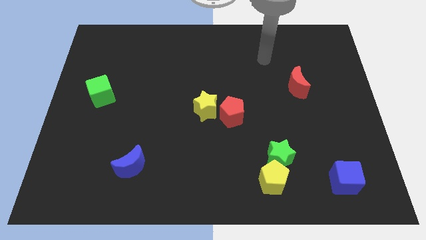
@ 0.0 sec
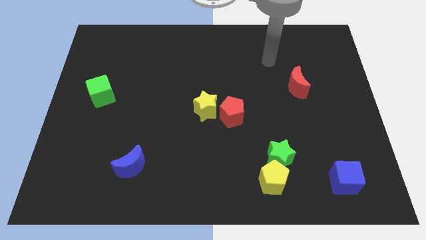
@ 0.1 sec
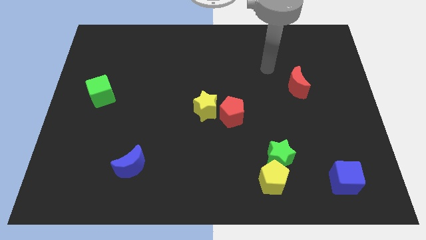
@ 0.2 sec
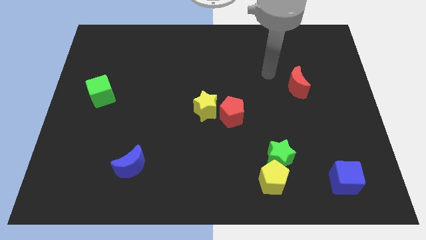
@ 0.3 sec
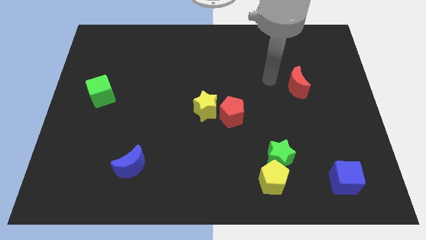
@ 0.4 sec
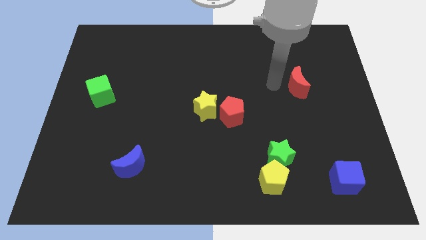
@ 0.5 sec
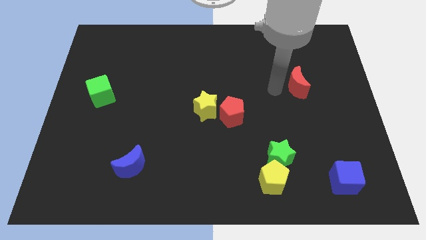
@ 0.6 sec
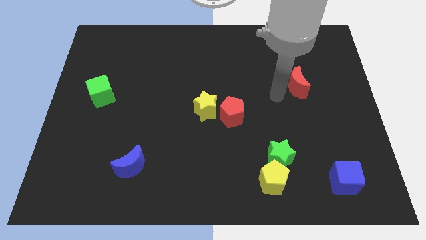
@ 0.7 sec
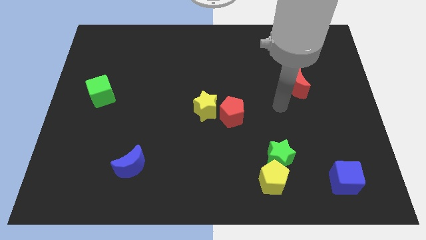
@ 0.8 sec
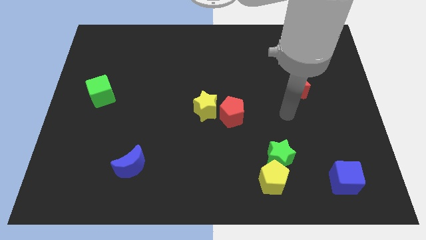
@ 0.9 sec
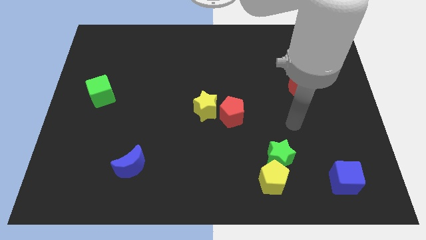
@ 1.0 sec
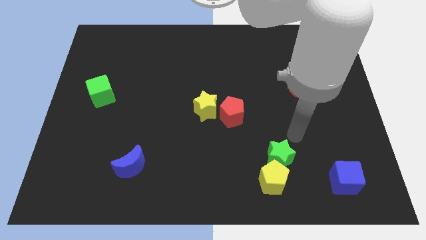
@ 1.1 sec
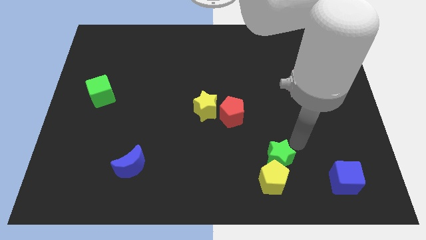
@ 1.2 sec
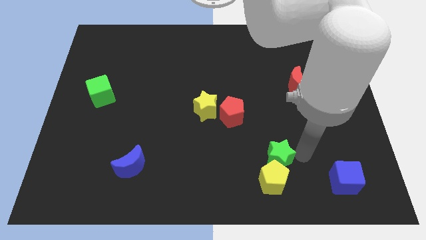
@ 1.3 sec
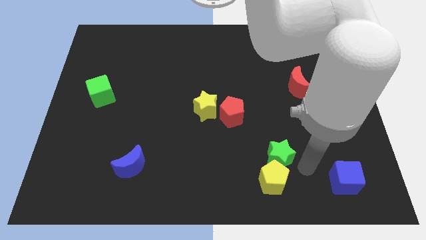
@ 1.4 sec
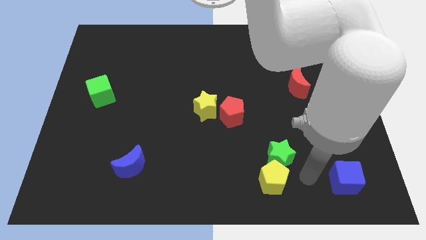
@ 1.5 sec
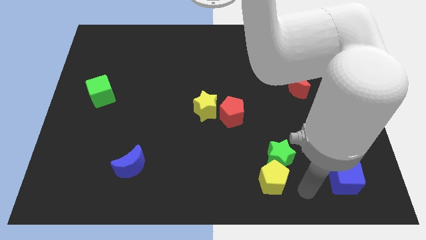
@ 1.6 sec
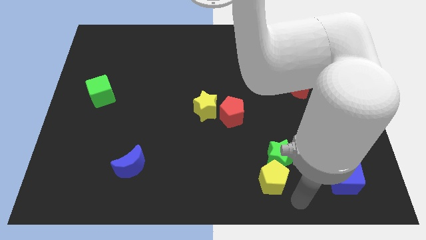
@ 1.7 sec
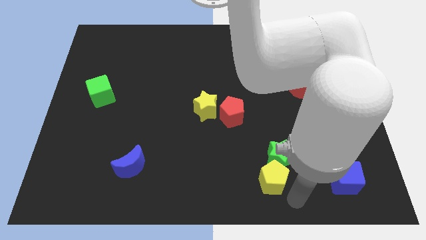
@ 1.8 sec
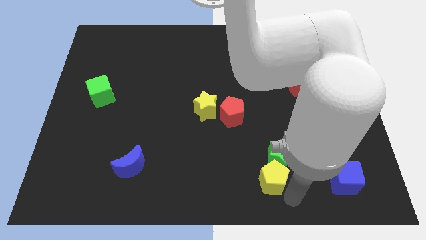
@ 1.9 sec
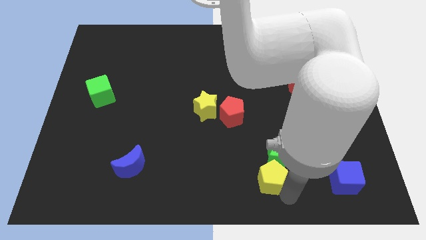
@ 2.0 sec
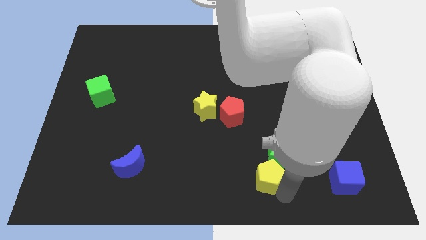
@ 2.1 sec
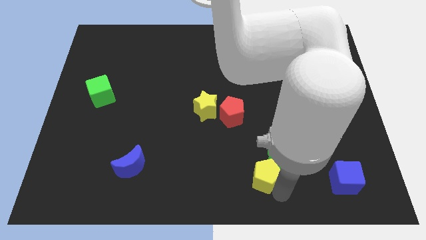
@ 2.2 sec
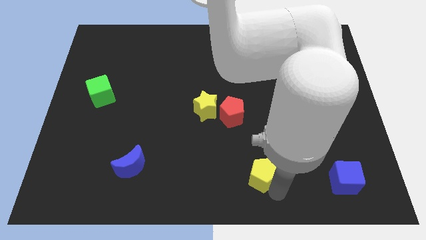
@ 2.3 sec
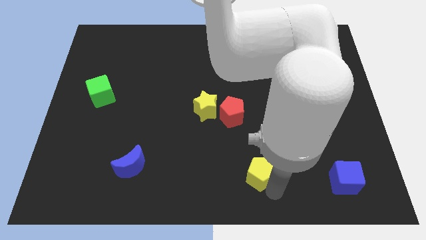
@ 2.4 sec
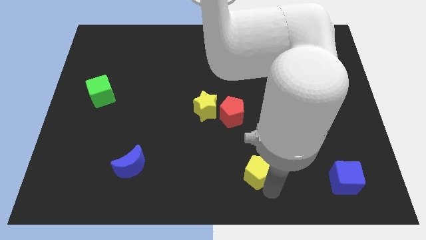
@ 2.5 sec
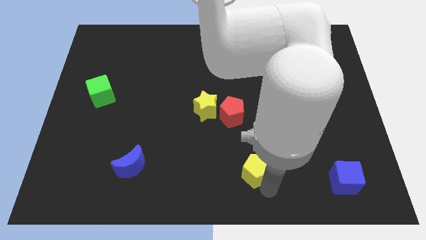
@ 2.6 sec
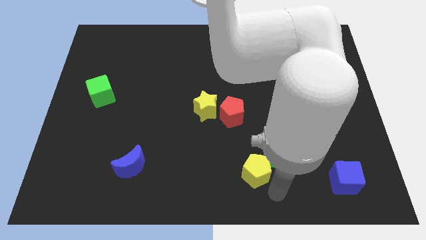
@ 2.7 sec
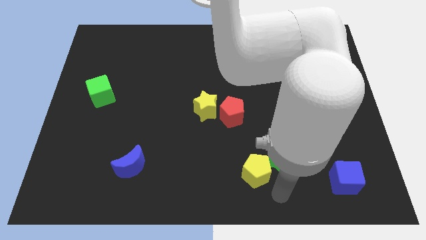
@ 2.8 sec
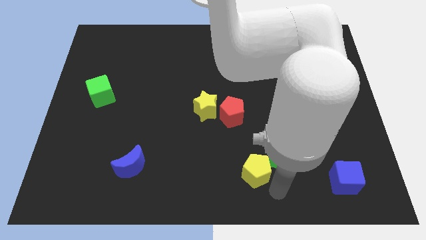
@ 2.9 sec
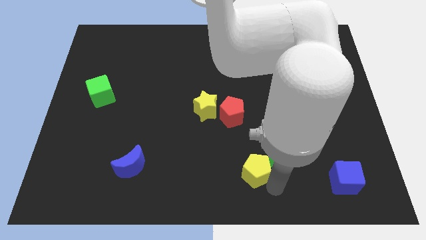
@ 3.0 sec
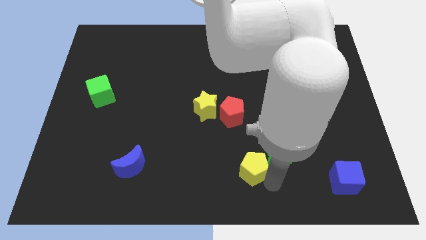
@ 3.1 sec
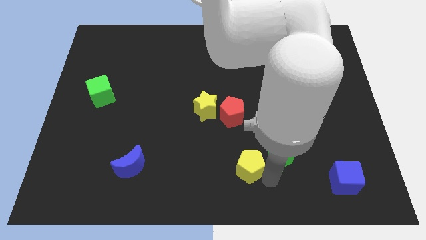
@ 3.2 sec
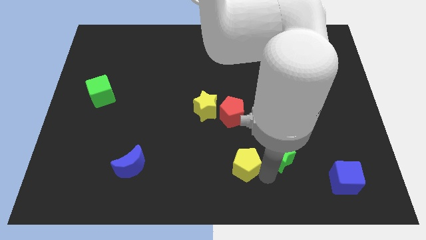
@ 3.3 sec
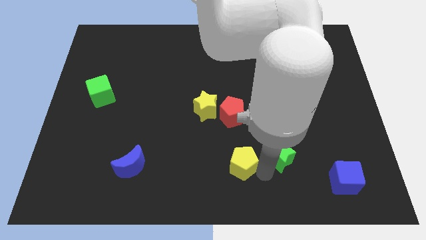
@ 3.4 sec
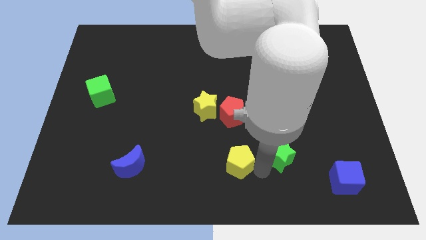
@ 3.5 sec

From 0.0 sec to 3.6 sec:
slide the yellow pentagon a little bit upwards and then to the left

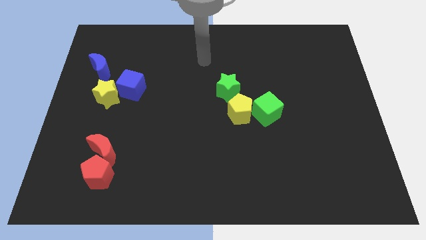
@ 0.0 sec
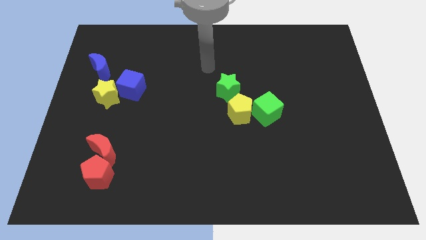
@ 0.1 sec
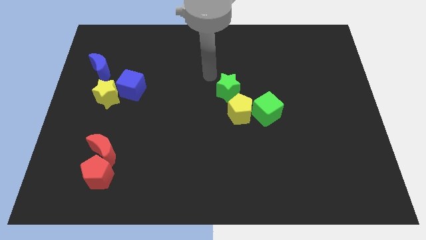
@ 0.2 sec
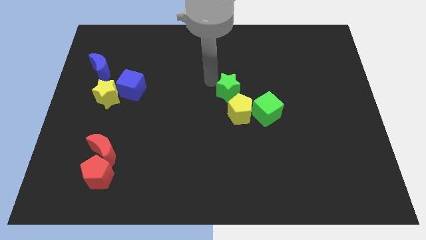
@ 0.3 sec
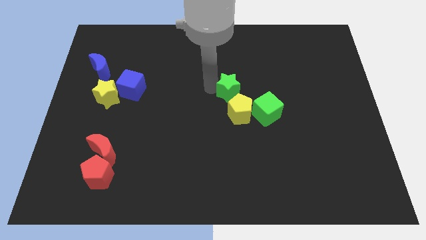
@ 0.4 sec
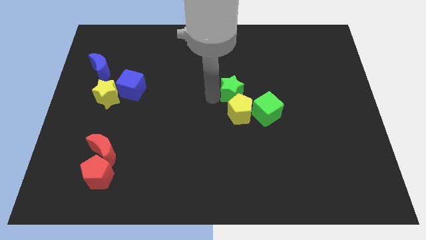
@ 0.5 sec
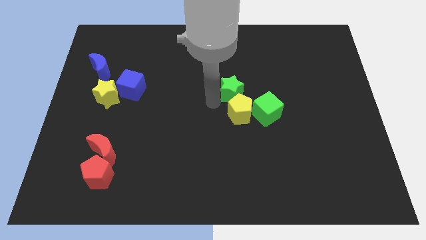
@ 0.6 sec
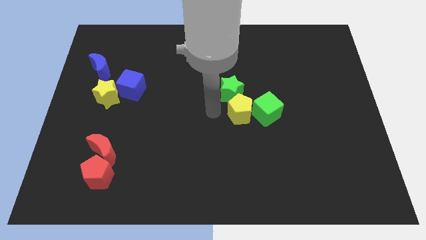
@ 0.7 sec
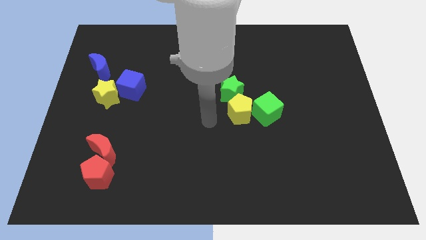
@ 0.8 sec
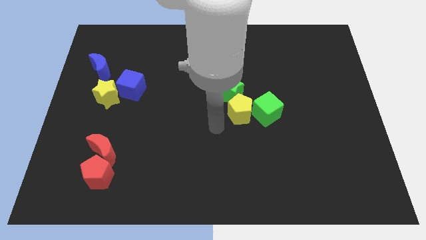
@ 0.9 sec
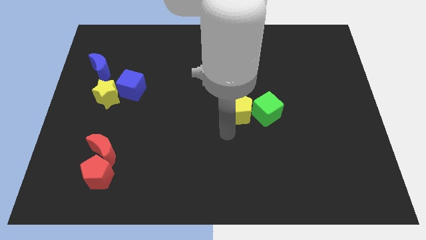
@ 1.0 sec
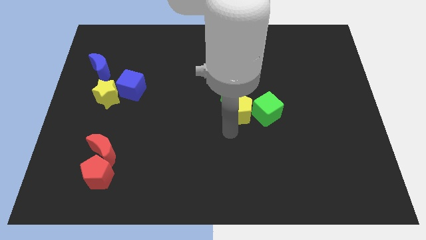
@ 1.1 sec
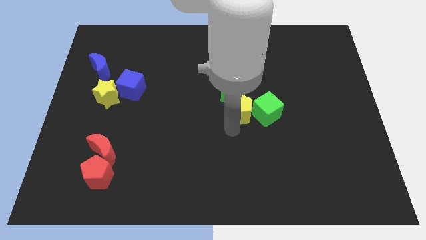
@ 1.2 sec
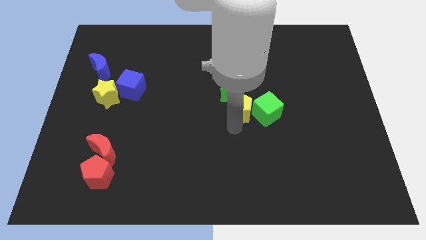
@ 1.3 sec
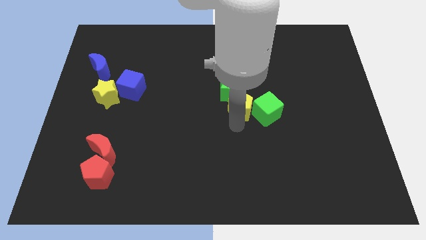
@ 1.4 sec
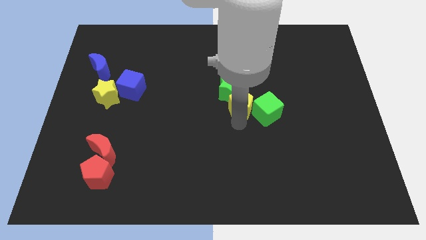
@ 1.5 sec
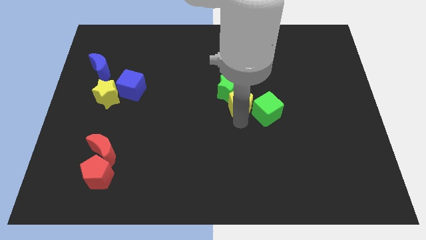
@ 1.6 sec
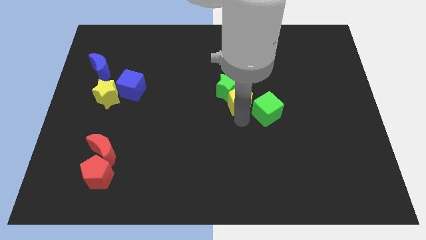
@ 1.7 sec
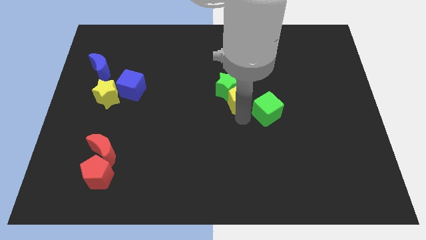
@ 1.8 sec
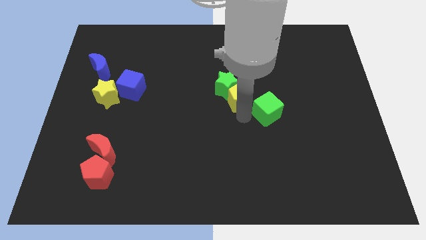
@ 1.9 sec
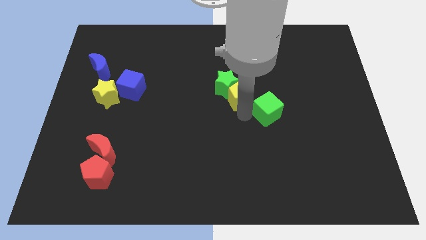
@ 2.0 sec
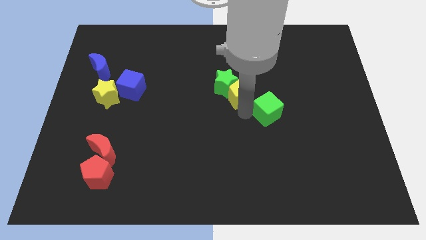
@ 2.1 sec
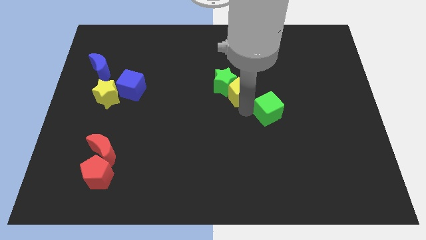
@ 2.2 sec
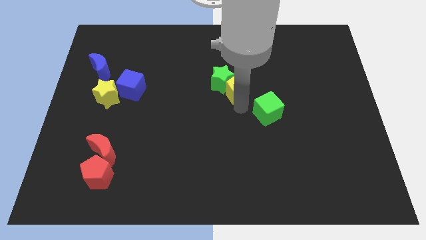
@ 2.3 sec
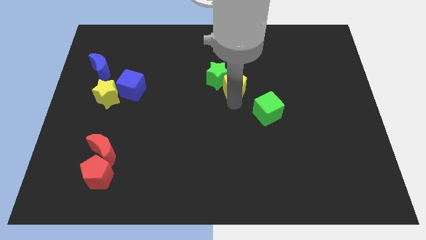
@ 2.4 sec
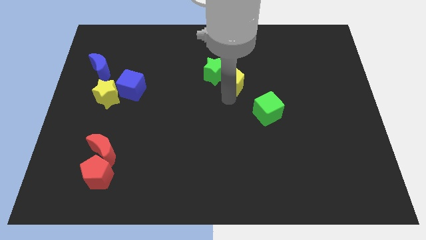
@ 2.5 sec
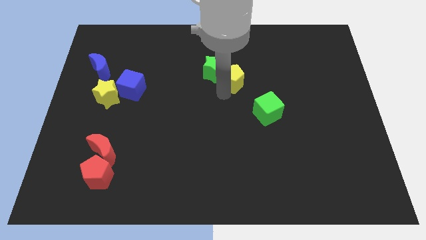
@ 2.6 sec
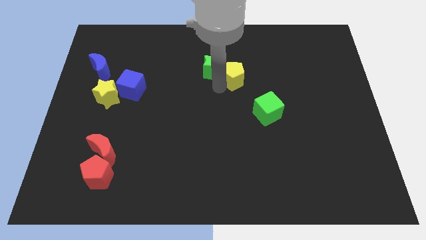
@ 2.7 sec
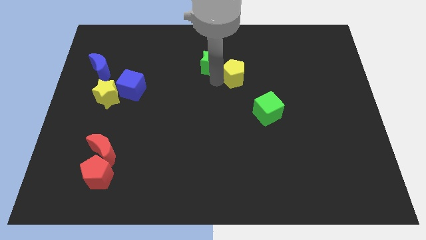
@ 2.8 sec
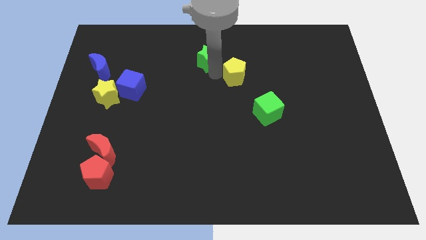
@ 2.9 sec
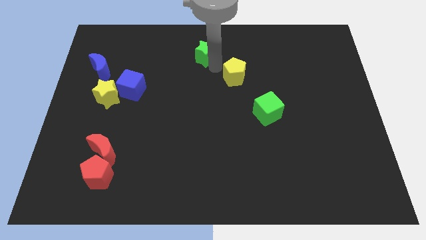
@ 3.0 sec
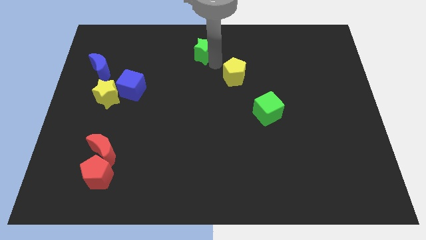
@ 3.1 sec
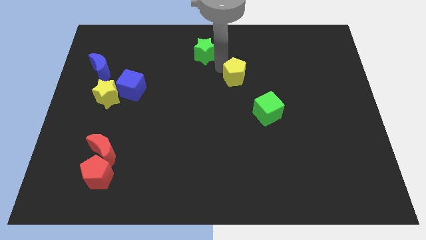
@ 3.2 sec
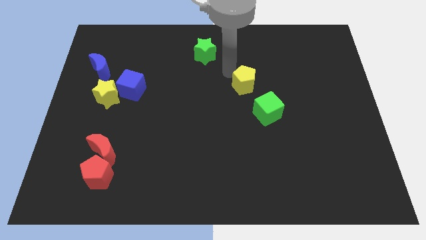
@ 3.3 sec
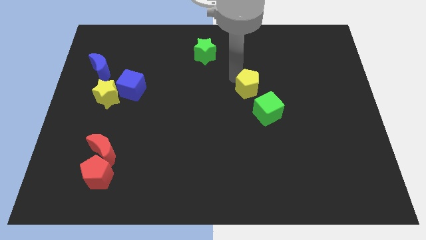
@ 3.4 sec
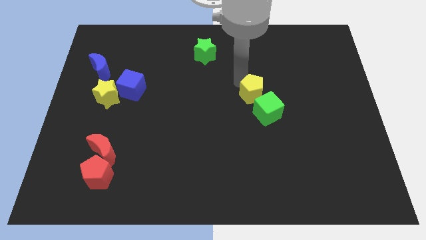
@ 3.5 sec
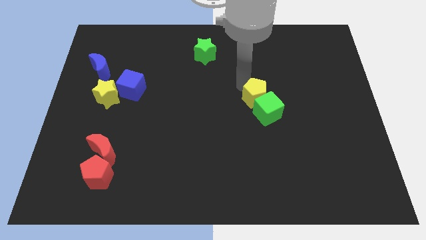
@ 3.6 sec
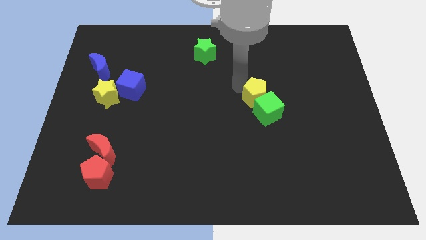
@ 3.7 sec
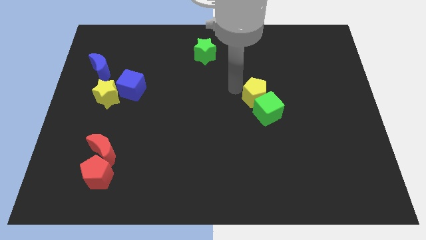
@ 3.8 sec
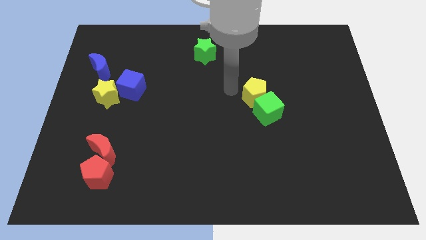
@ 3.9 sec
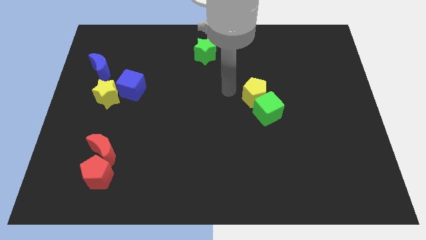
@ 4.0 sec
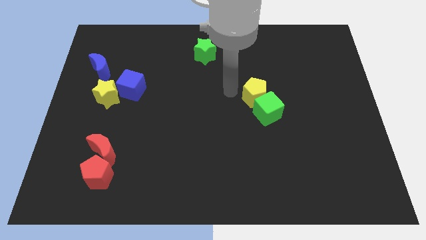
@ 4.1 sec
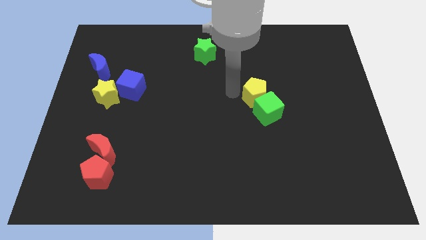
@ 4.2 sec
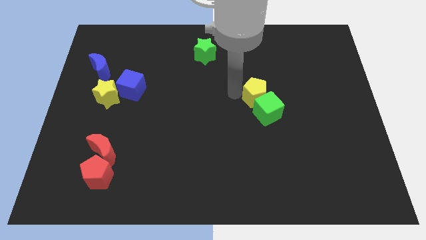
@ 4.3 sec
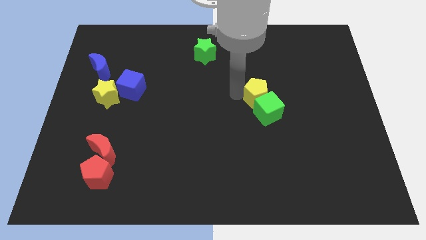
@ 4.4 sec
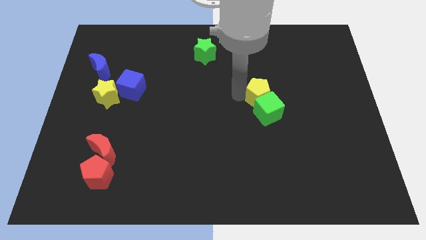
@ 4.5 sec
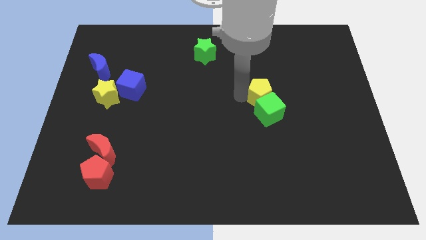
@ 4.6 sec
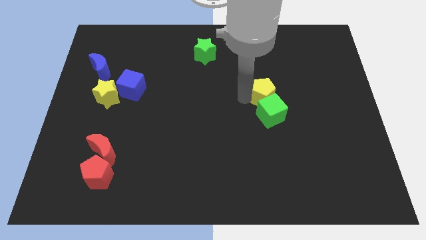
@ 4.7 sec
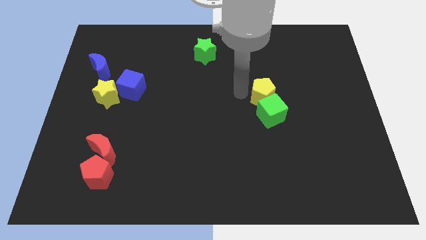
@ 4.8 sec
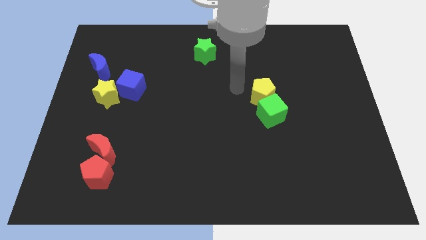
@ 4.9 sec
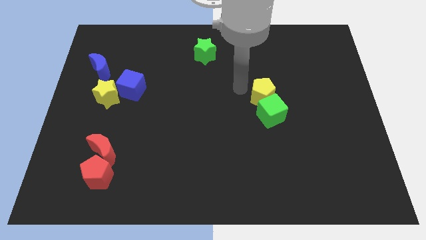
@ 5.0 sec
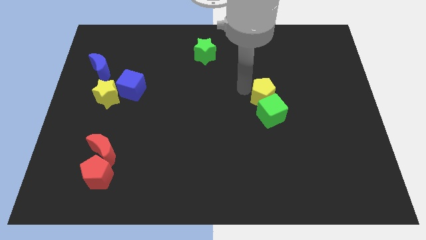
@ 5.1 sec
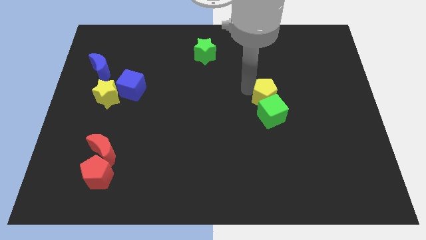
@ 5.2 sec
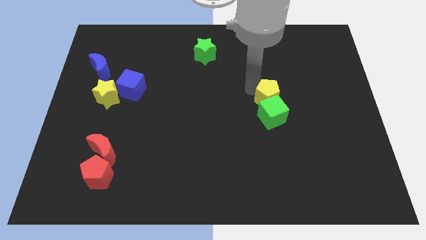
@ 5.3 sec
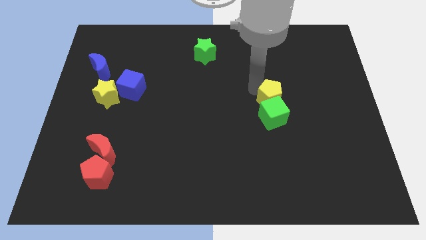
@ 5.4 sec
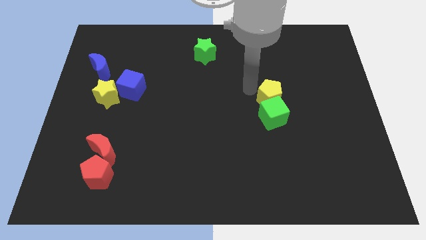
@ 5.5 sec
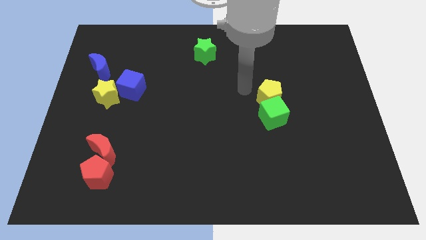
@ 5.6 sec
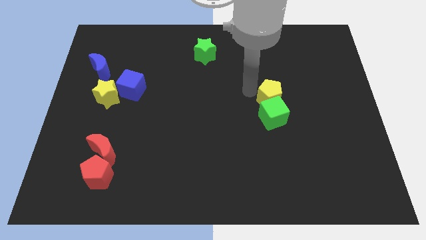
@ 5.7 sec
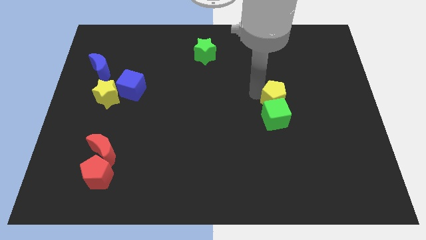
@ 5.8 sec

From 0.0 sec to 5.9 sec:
slightly slide the yellow pentagon right
